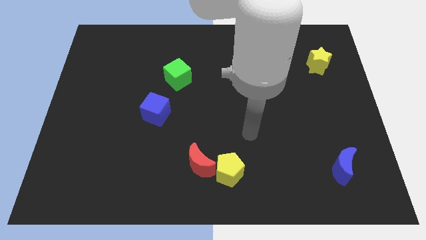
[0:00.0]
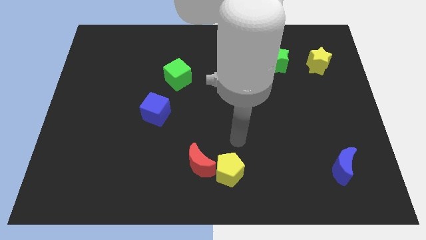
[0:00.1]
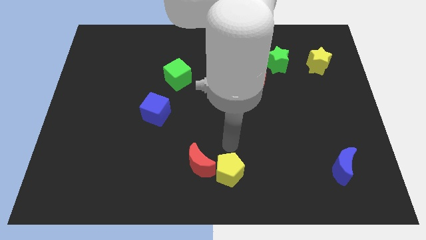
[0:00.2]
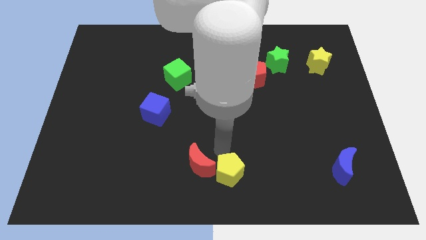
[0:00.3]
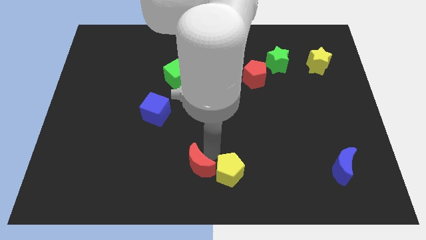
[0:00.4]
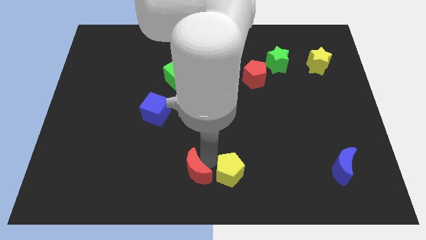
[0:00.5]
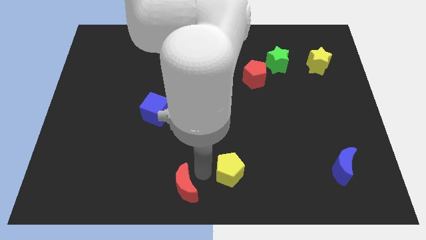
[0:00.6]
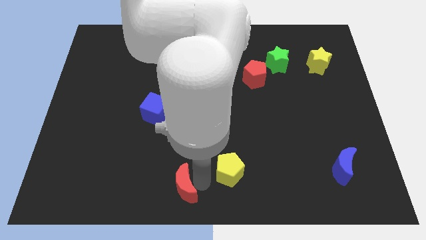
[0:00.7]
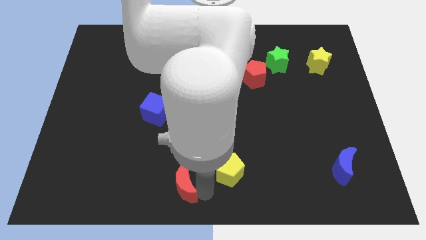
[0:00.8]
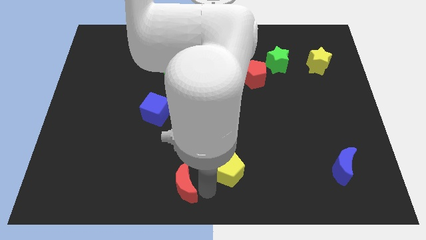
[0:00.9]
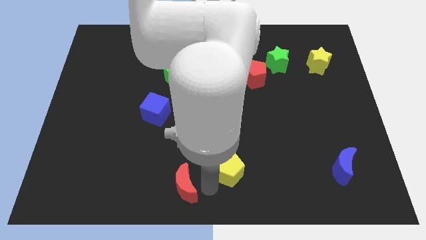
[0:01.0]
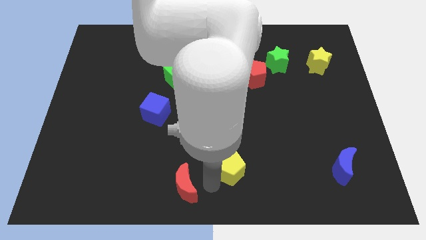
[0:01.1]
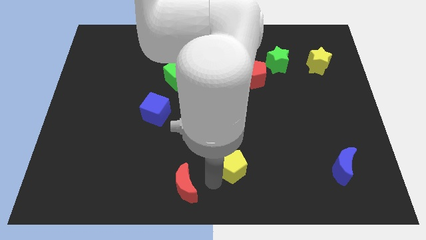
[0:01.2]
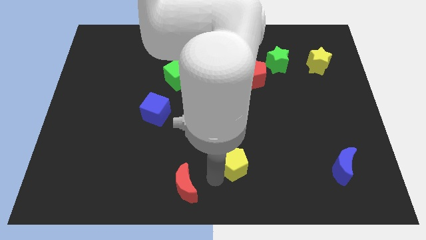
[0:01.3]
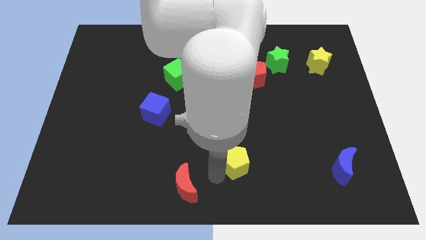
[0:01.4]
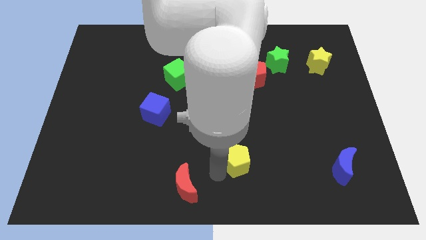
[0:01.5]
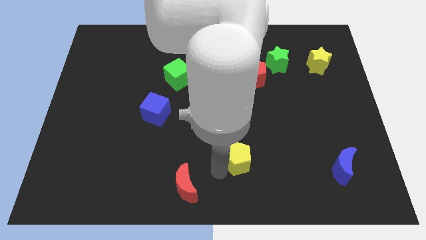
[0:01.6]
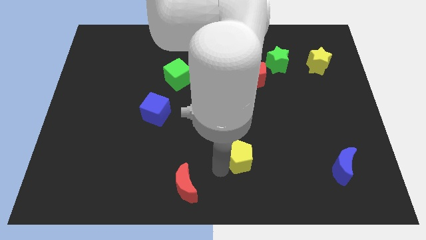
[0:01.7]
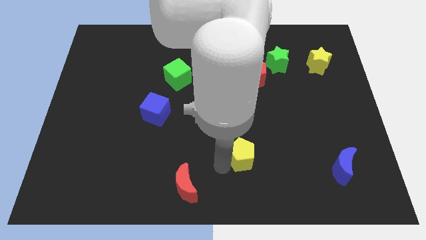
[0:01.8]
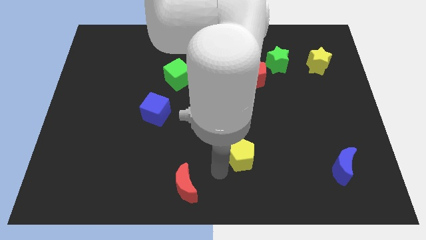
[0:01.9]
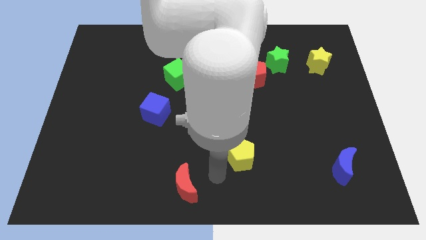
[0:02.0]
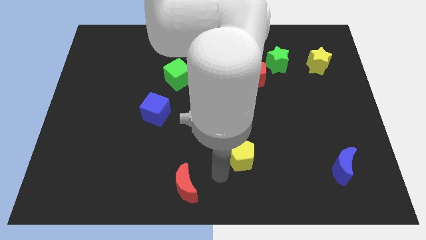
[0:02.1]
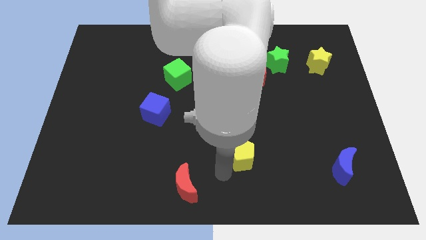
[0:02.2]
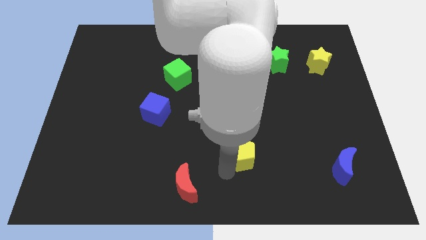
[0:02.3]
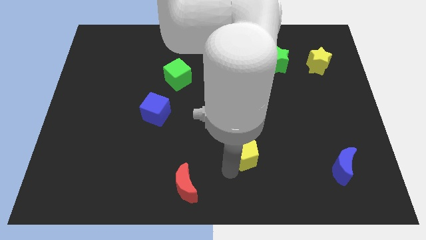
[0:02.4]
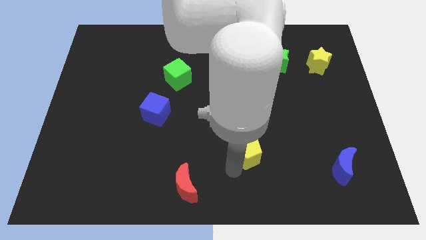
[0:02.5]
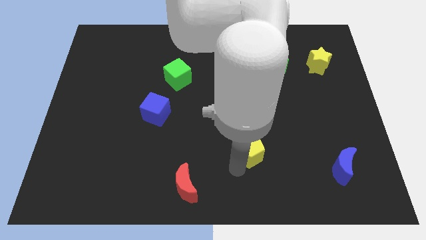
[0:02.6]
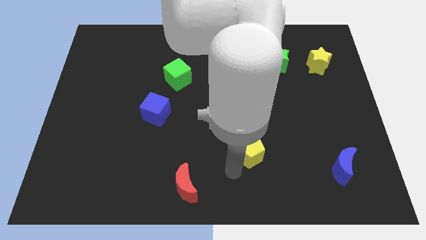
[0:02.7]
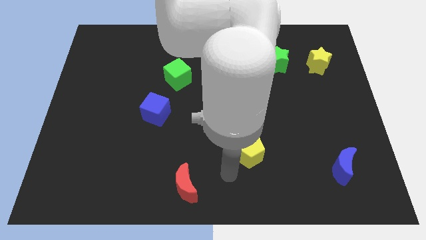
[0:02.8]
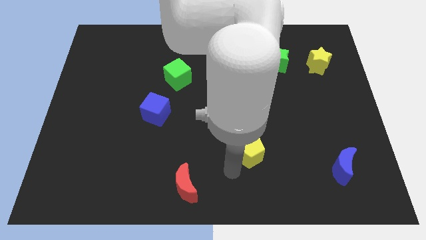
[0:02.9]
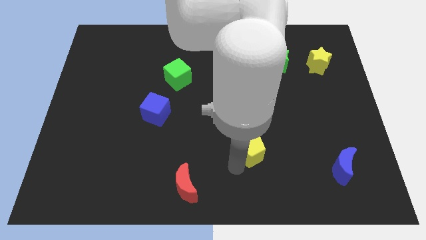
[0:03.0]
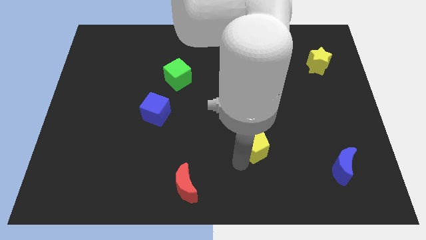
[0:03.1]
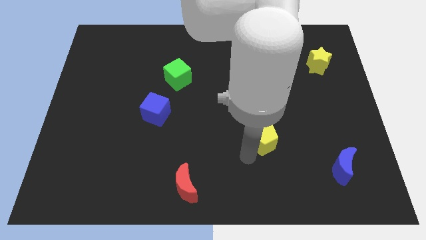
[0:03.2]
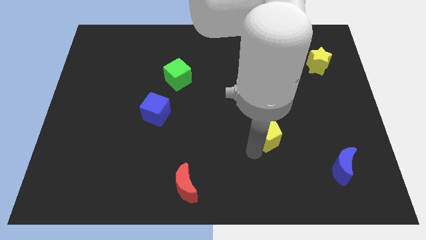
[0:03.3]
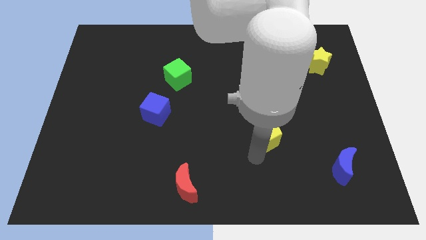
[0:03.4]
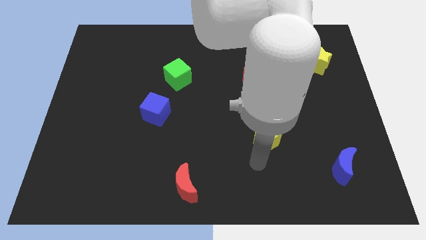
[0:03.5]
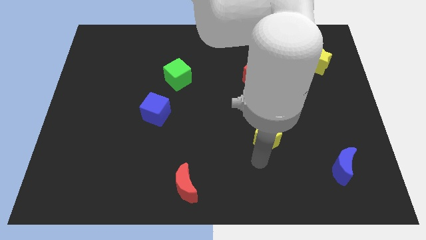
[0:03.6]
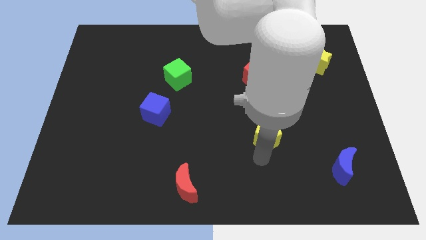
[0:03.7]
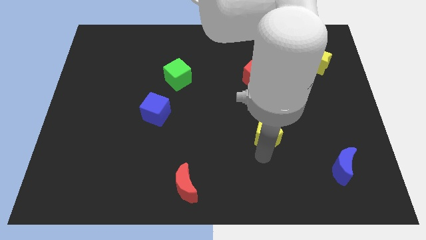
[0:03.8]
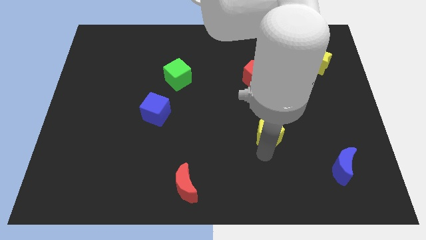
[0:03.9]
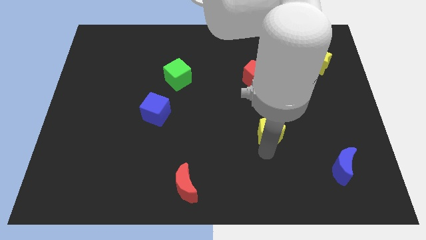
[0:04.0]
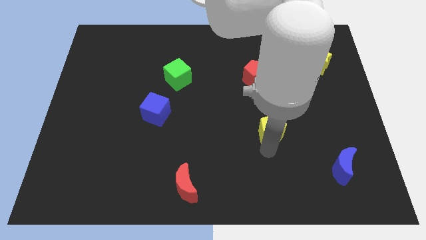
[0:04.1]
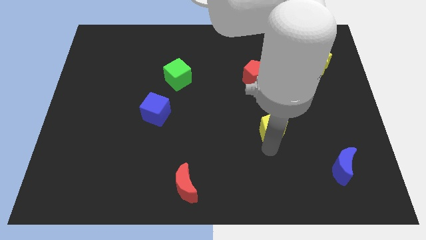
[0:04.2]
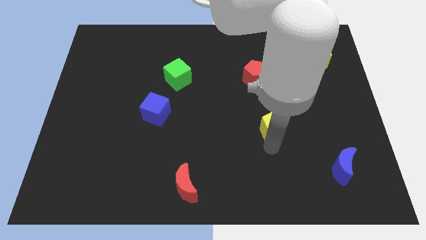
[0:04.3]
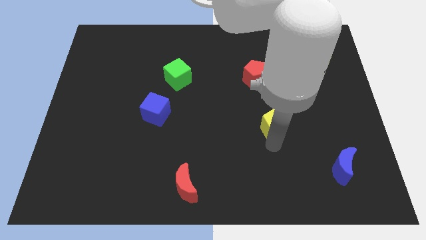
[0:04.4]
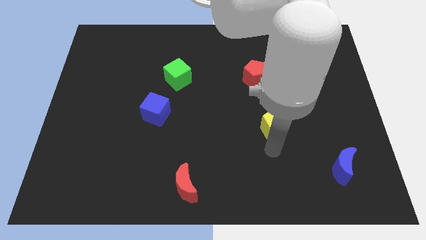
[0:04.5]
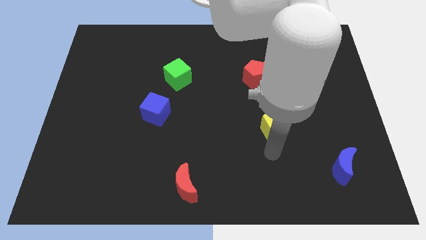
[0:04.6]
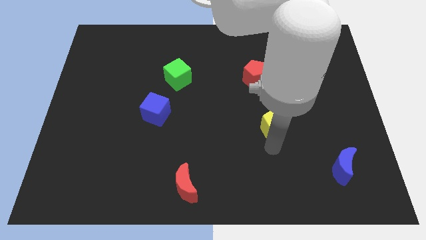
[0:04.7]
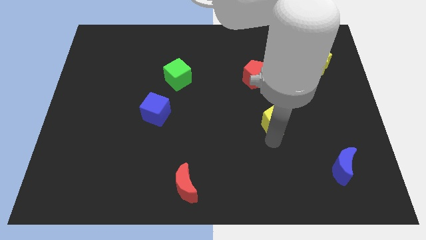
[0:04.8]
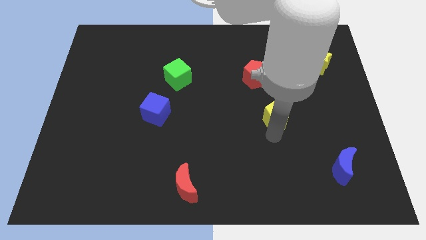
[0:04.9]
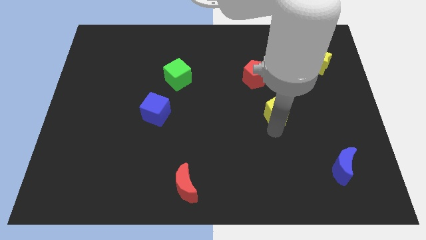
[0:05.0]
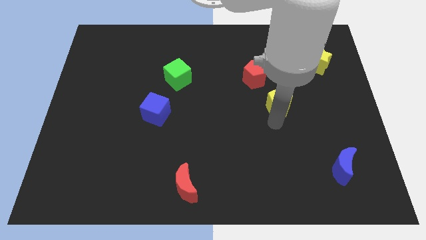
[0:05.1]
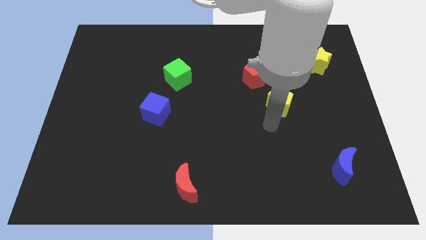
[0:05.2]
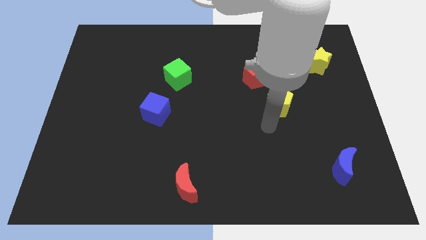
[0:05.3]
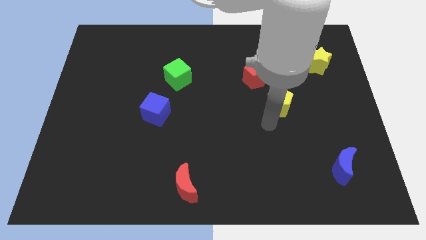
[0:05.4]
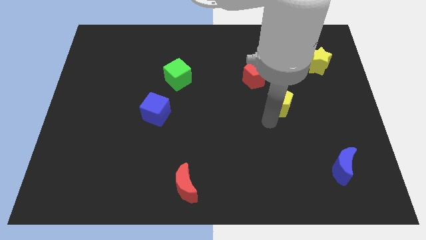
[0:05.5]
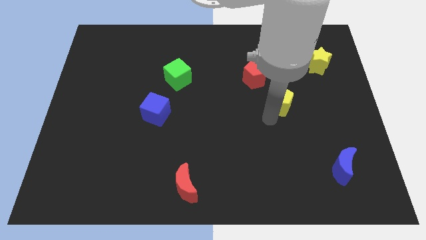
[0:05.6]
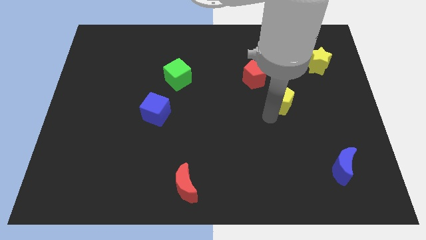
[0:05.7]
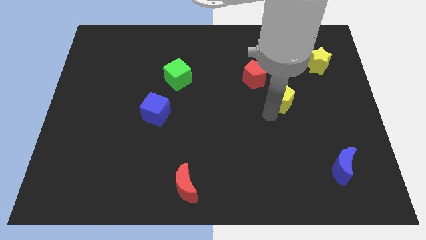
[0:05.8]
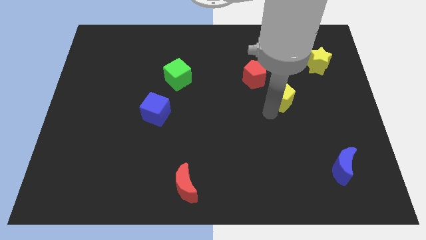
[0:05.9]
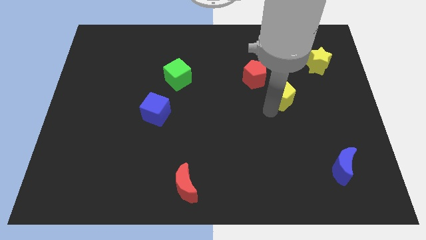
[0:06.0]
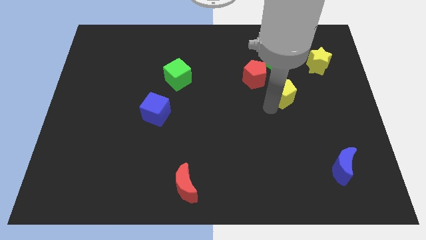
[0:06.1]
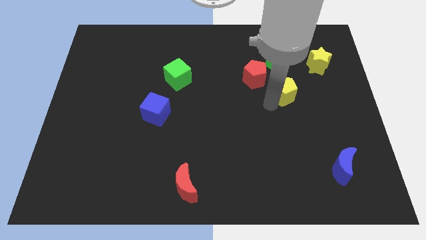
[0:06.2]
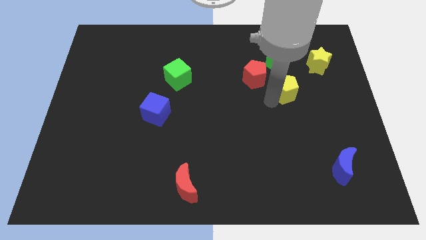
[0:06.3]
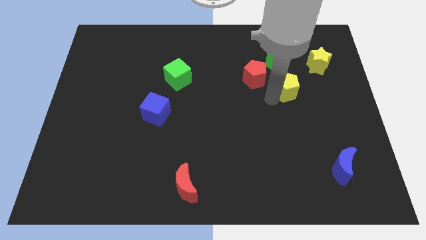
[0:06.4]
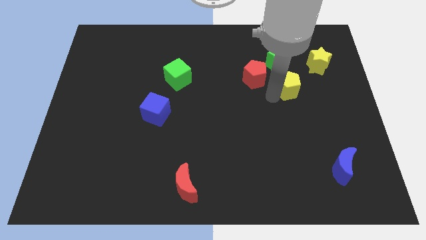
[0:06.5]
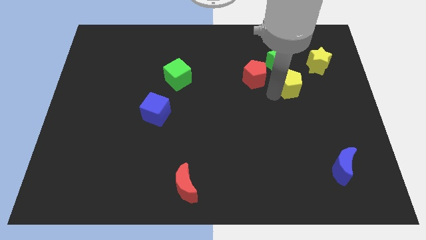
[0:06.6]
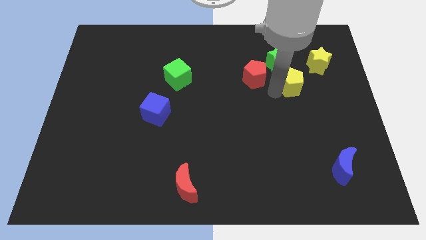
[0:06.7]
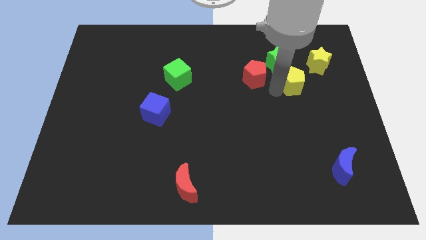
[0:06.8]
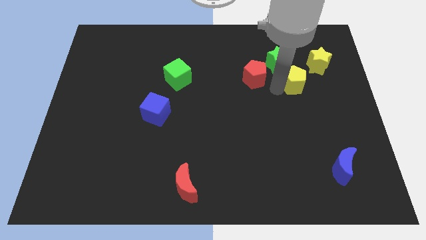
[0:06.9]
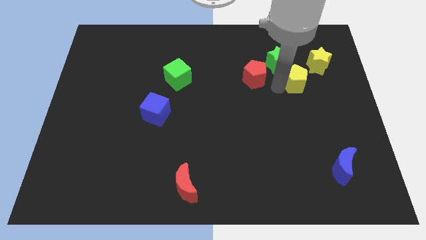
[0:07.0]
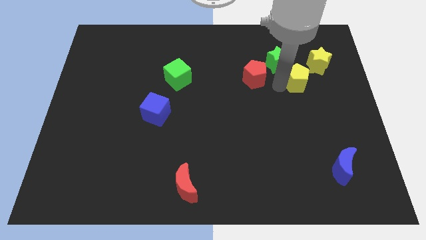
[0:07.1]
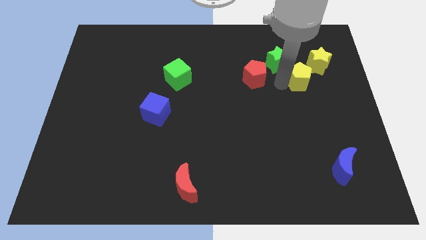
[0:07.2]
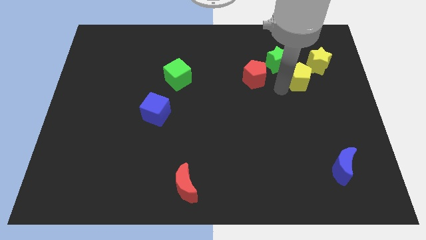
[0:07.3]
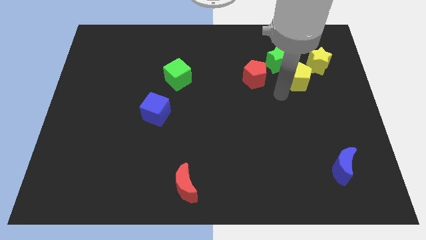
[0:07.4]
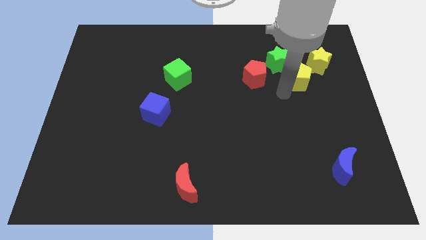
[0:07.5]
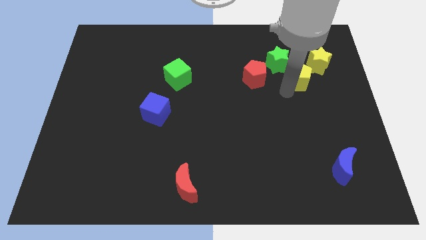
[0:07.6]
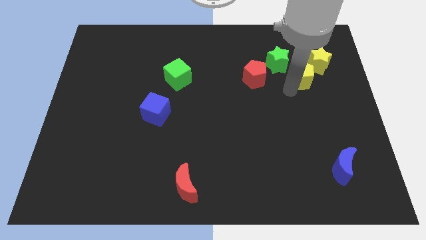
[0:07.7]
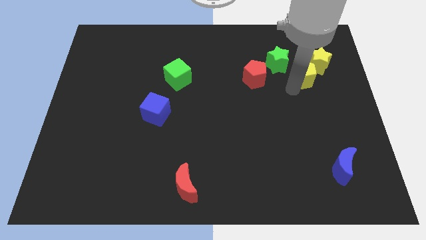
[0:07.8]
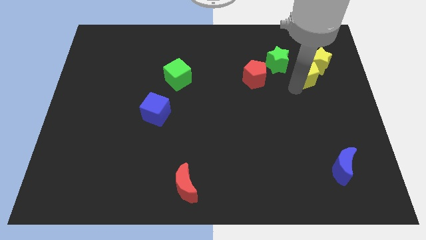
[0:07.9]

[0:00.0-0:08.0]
push the yellow pentagon next to the yellow star
